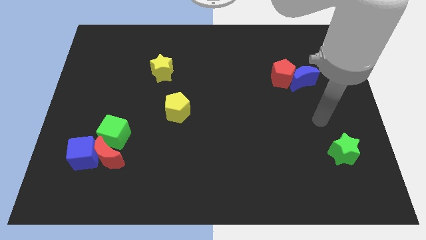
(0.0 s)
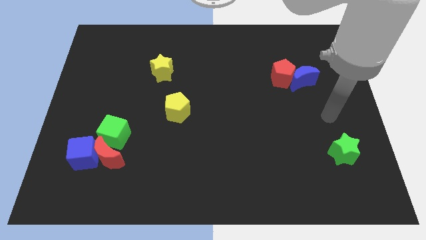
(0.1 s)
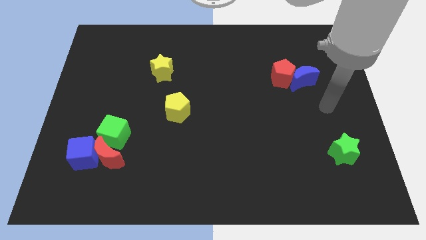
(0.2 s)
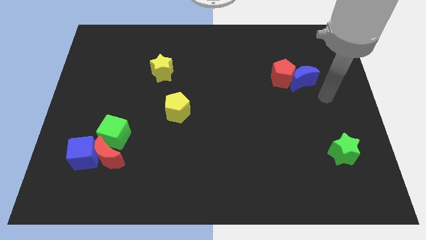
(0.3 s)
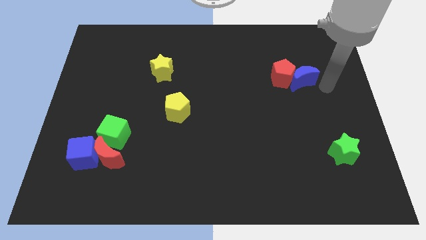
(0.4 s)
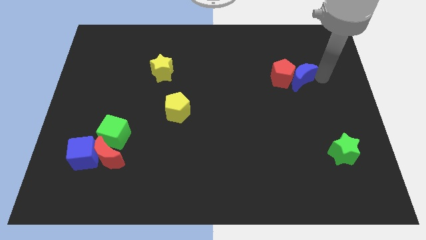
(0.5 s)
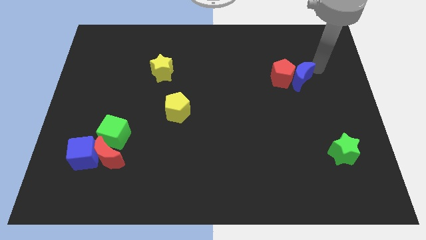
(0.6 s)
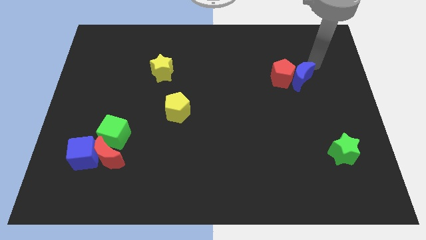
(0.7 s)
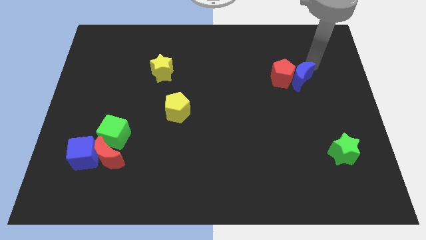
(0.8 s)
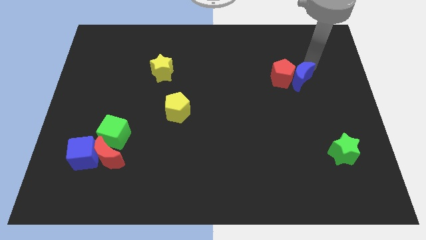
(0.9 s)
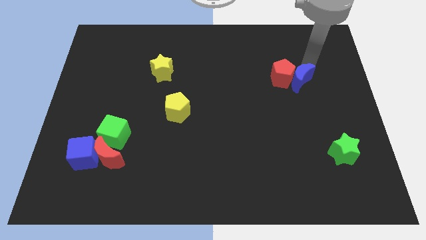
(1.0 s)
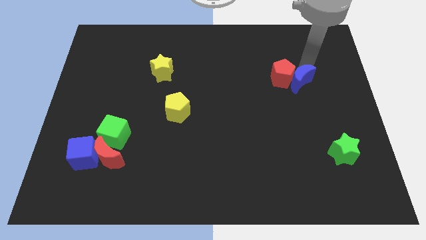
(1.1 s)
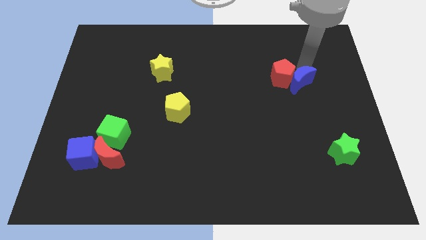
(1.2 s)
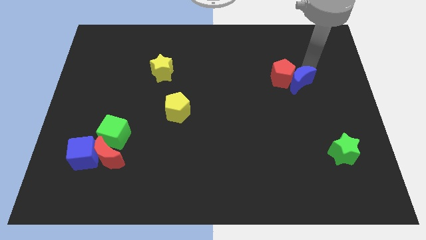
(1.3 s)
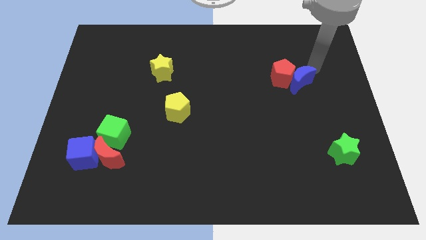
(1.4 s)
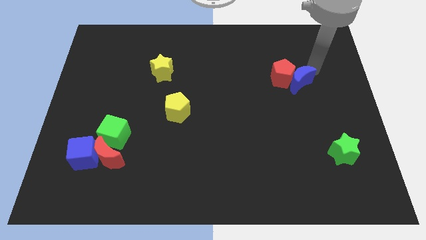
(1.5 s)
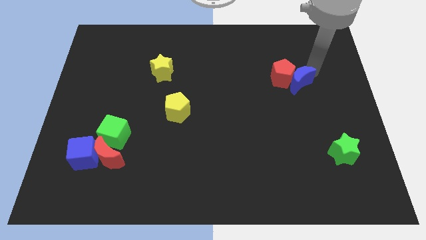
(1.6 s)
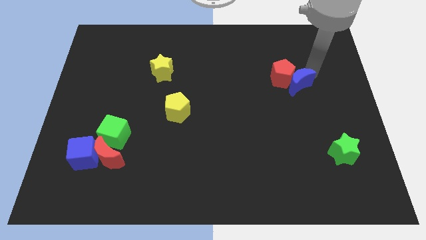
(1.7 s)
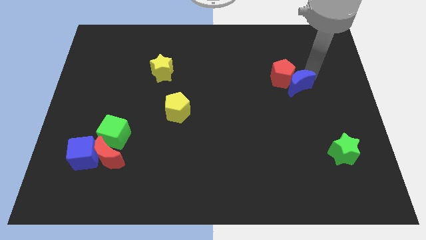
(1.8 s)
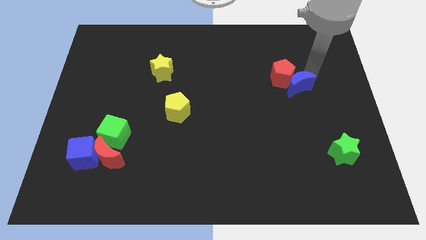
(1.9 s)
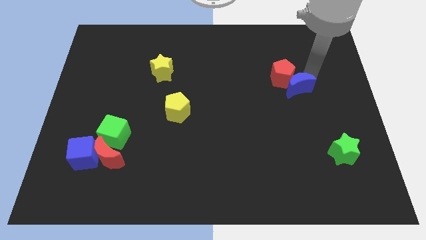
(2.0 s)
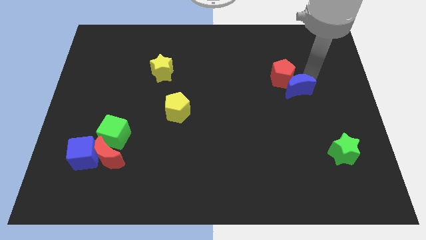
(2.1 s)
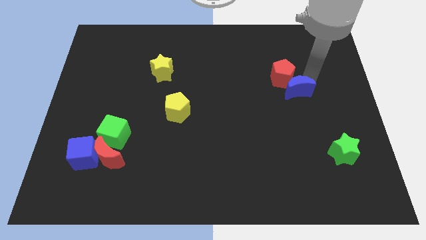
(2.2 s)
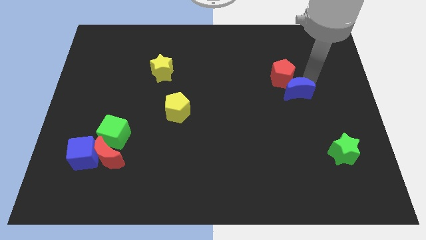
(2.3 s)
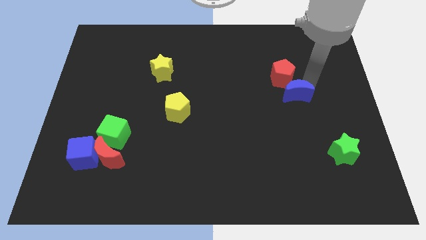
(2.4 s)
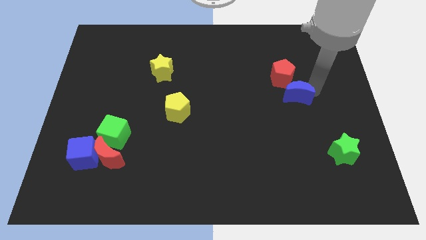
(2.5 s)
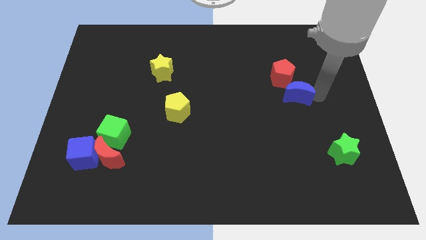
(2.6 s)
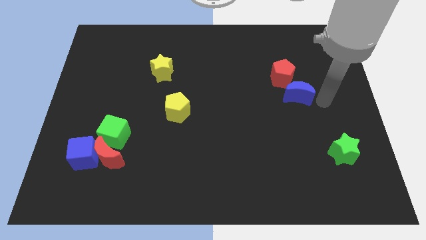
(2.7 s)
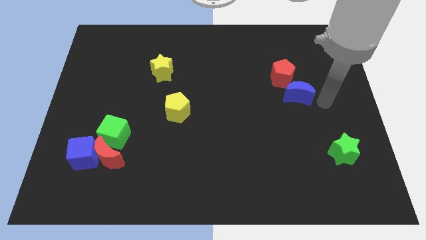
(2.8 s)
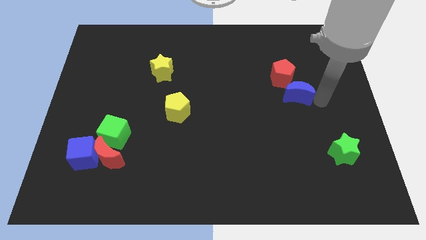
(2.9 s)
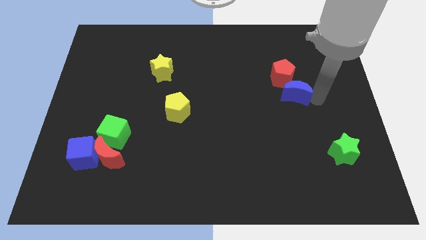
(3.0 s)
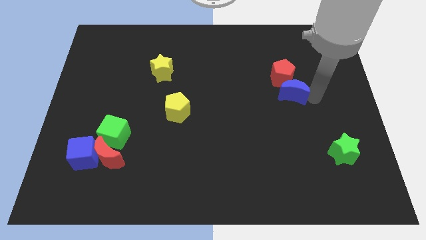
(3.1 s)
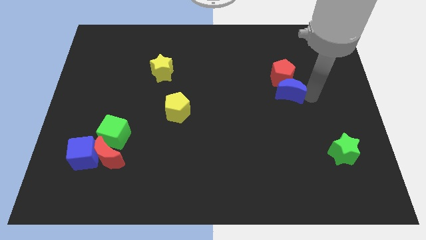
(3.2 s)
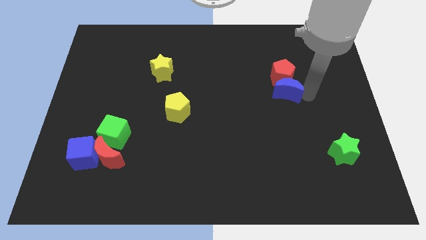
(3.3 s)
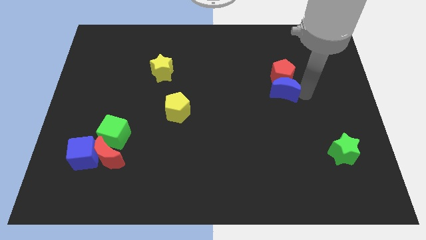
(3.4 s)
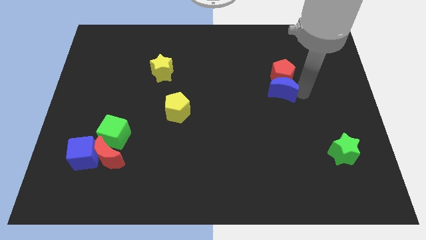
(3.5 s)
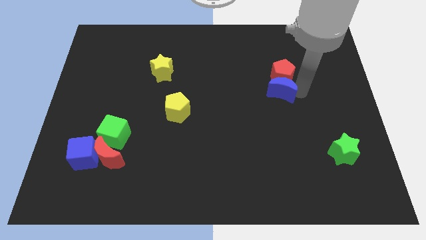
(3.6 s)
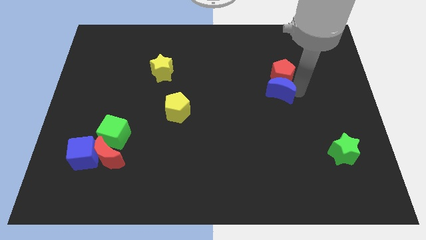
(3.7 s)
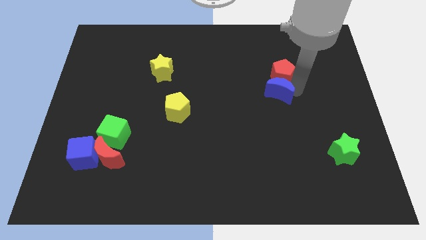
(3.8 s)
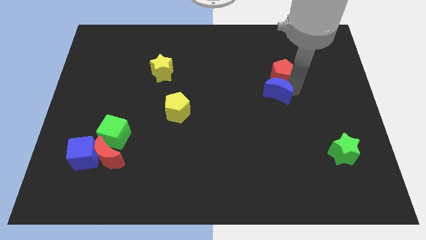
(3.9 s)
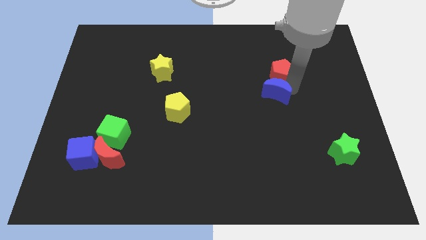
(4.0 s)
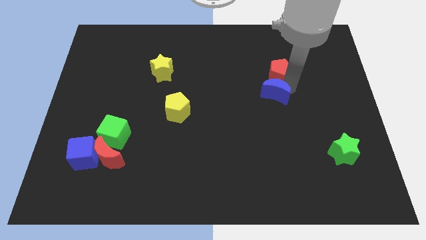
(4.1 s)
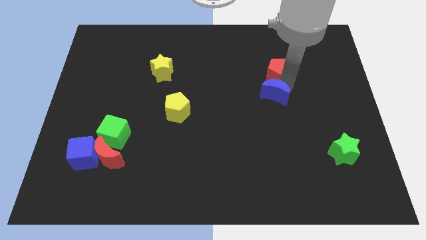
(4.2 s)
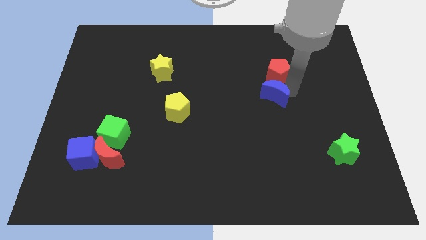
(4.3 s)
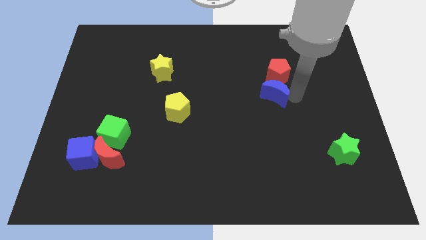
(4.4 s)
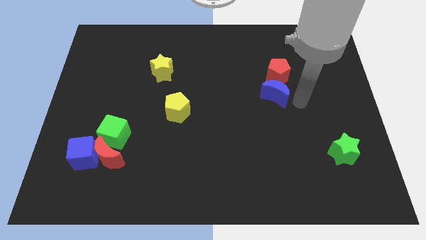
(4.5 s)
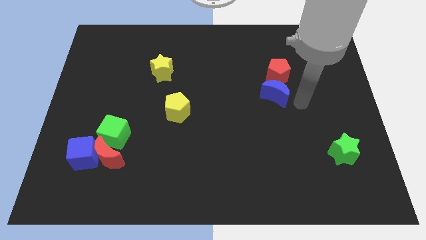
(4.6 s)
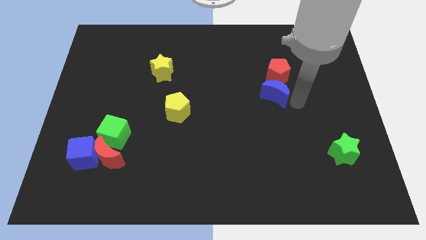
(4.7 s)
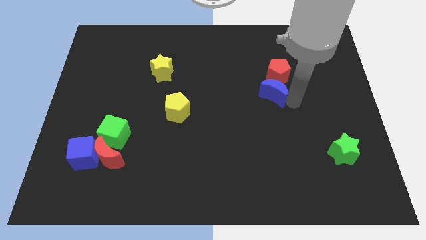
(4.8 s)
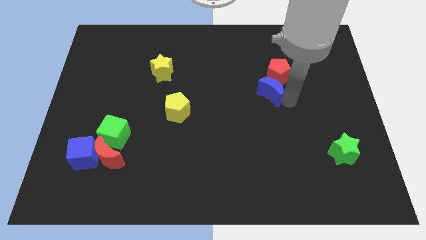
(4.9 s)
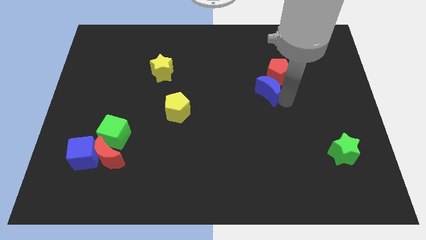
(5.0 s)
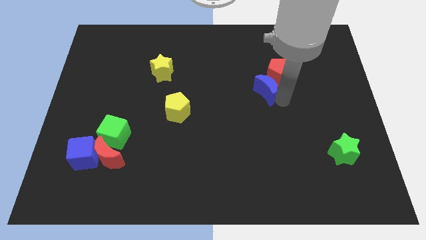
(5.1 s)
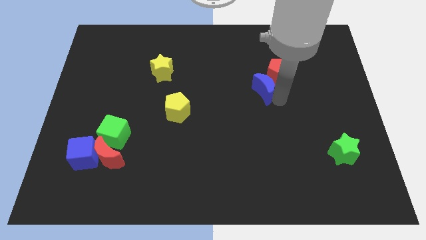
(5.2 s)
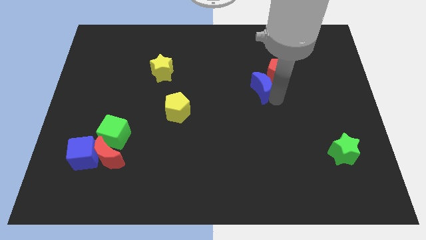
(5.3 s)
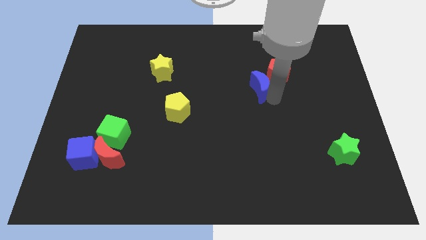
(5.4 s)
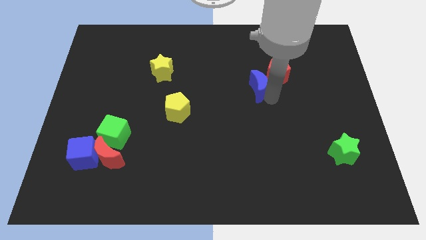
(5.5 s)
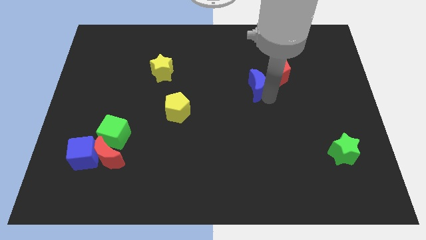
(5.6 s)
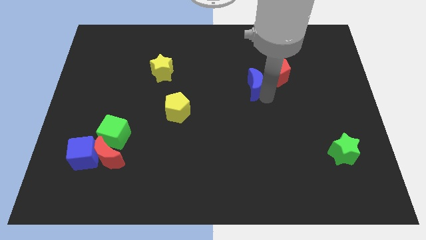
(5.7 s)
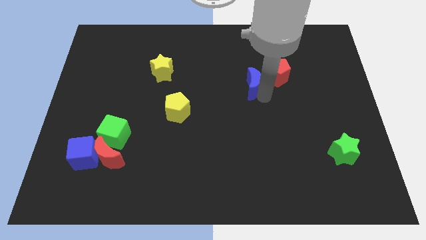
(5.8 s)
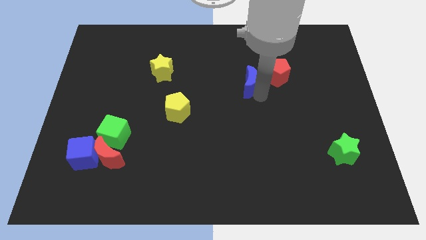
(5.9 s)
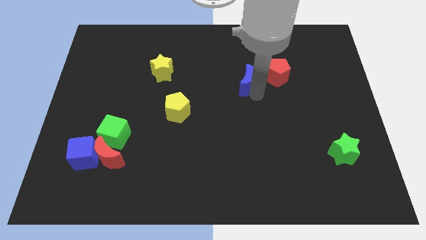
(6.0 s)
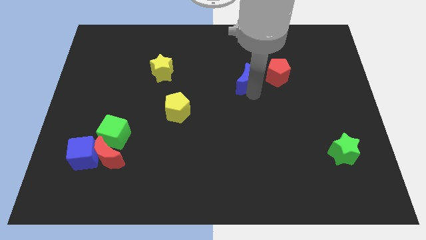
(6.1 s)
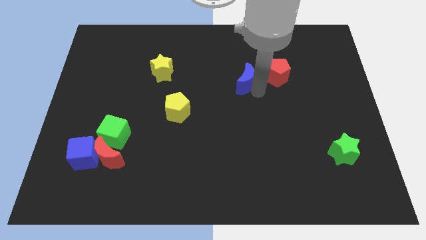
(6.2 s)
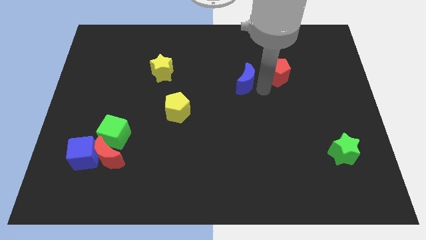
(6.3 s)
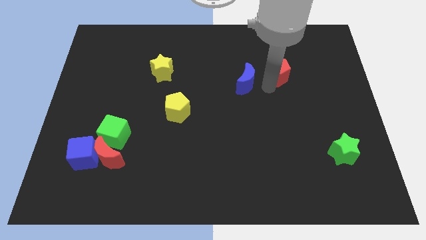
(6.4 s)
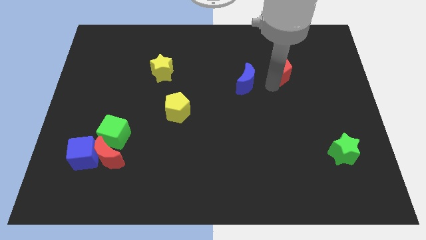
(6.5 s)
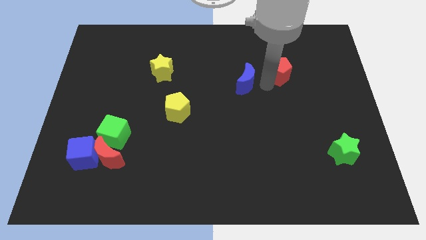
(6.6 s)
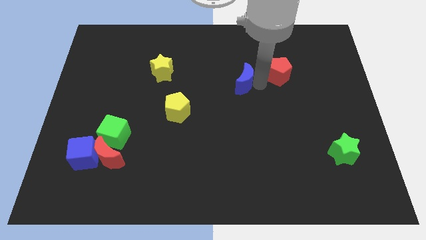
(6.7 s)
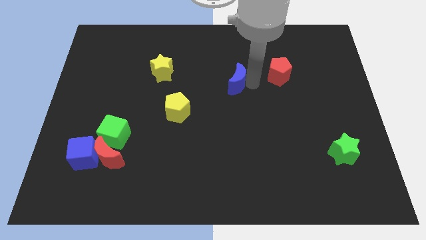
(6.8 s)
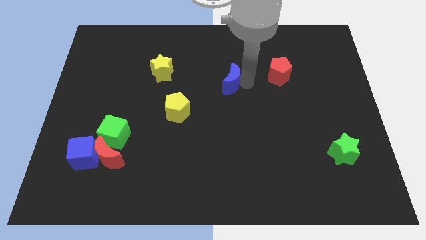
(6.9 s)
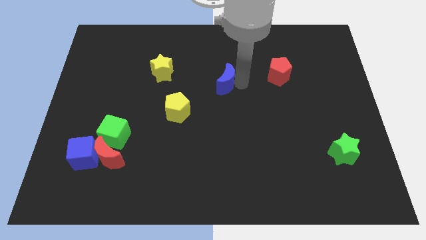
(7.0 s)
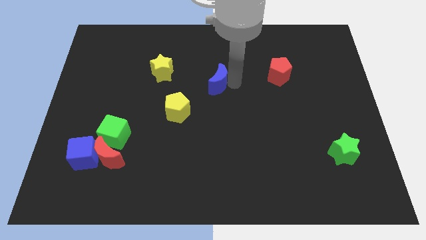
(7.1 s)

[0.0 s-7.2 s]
push the blue moon left

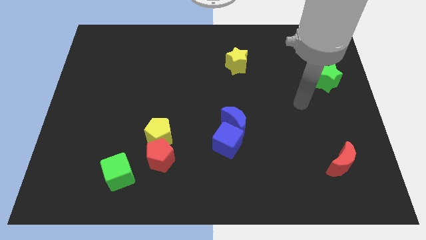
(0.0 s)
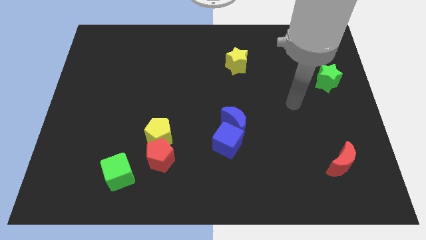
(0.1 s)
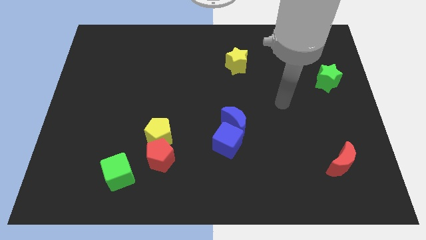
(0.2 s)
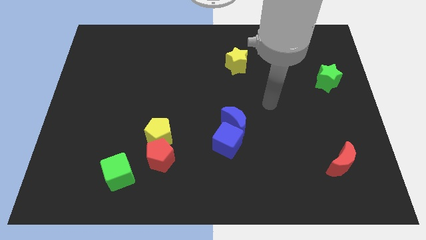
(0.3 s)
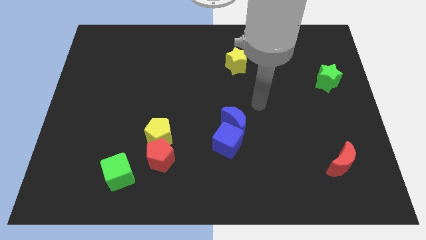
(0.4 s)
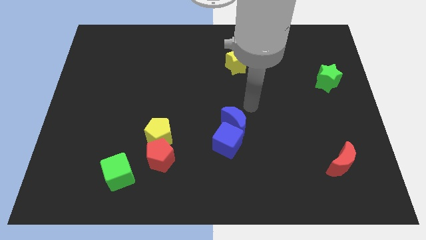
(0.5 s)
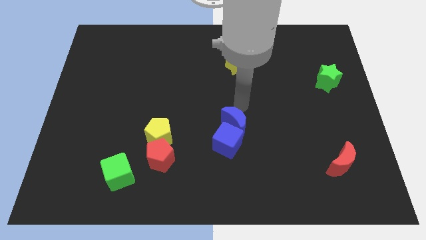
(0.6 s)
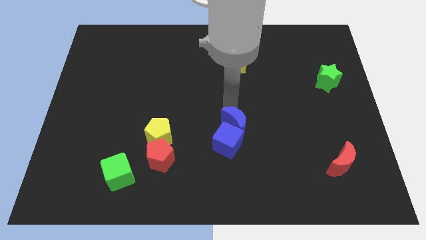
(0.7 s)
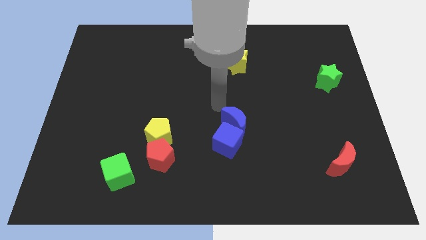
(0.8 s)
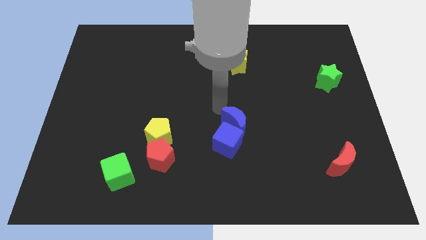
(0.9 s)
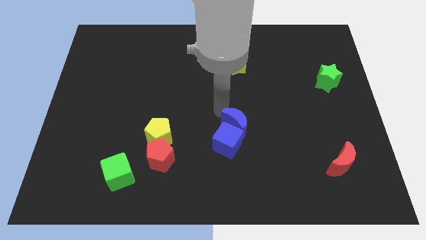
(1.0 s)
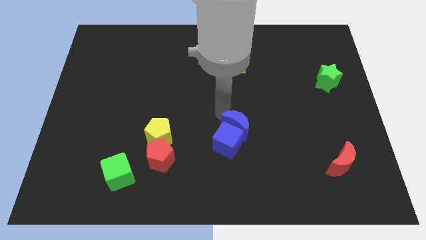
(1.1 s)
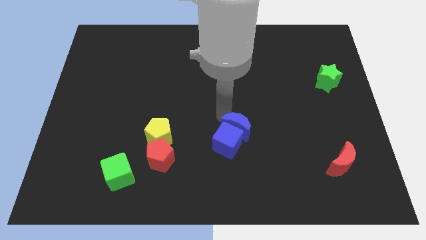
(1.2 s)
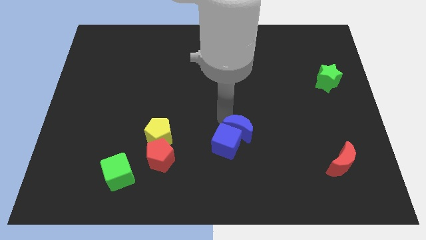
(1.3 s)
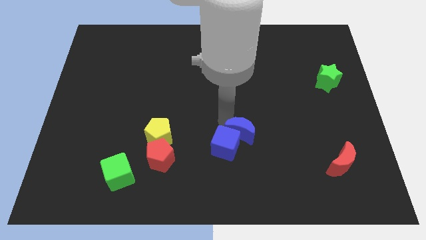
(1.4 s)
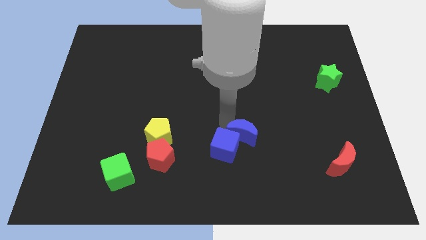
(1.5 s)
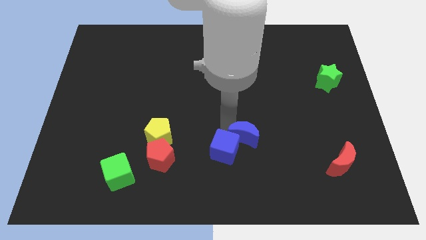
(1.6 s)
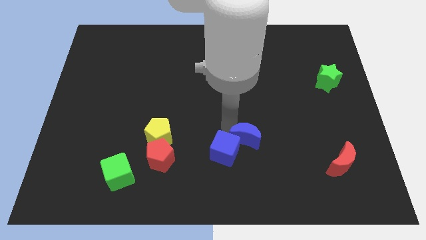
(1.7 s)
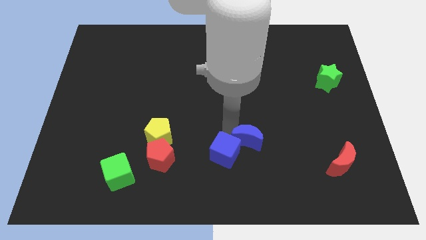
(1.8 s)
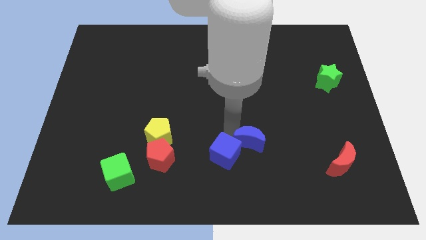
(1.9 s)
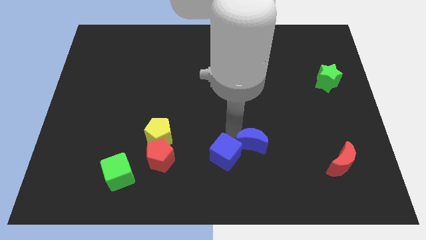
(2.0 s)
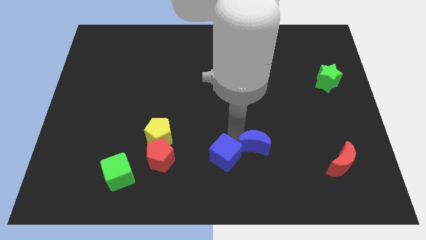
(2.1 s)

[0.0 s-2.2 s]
slightly move the blue moon downwards and to the right
